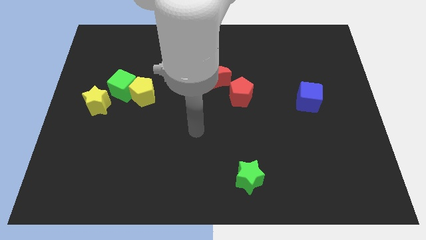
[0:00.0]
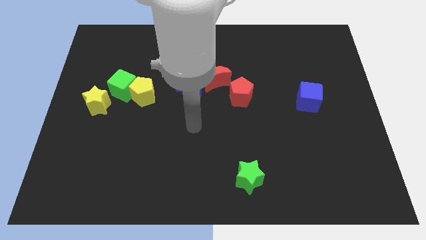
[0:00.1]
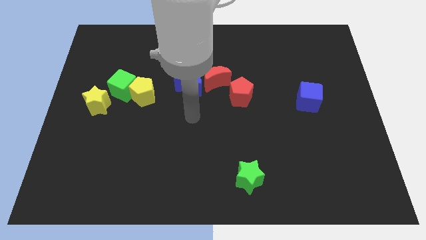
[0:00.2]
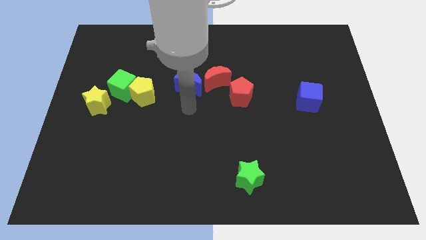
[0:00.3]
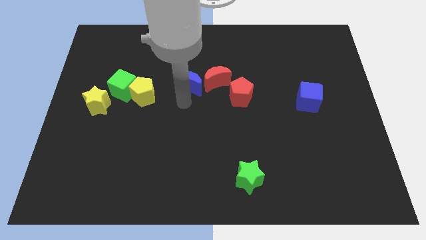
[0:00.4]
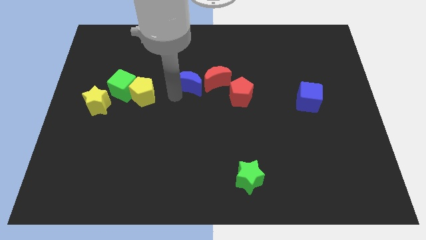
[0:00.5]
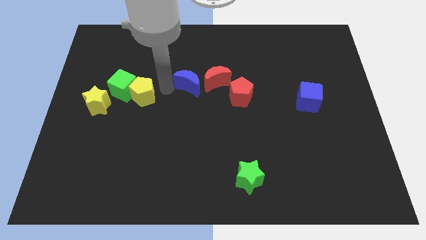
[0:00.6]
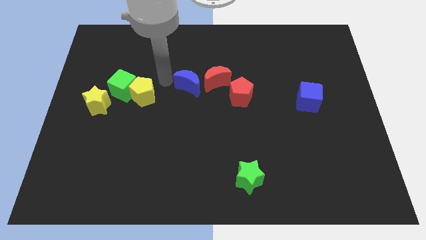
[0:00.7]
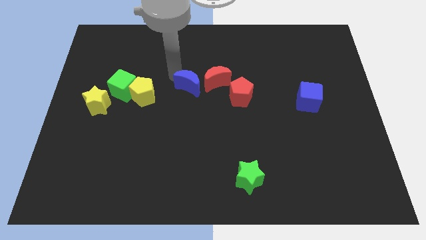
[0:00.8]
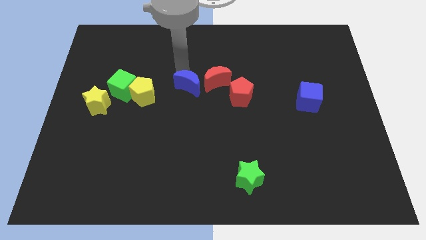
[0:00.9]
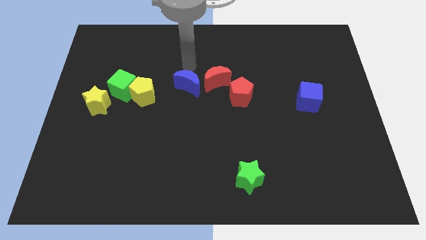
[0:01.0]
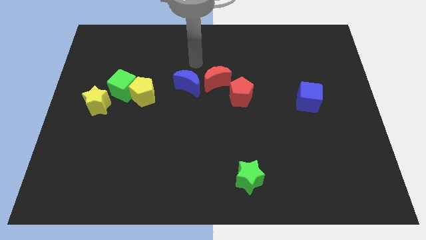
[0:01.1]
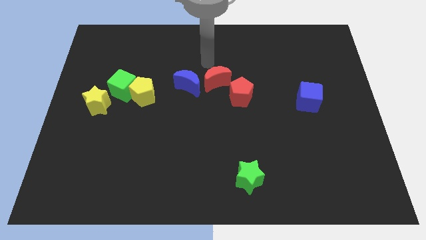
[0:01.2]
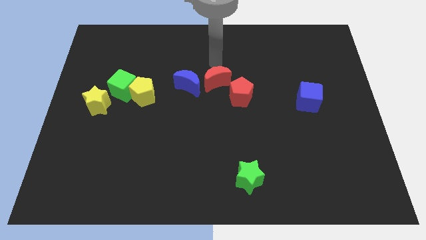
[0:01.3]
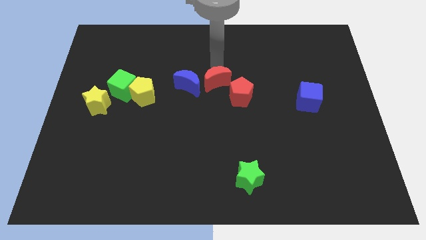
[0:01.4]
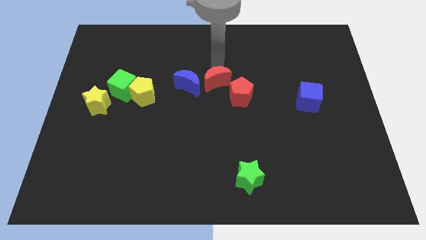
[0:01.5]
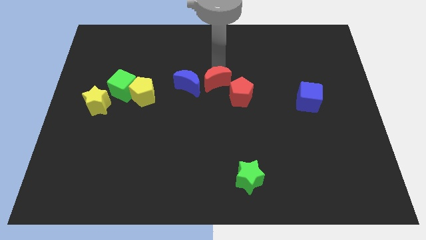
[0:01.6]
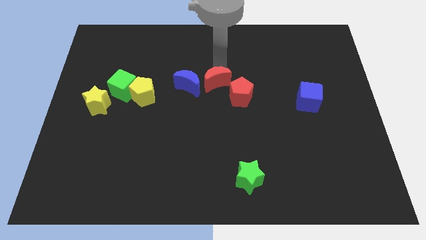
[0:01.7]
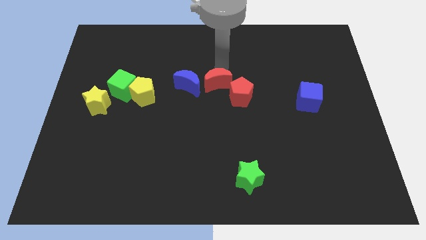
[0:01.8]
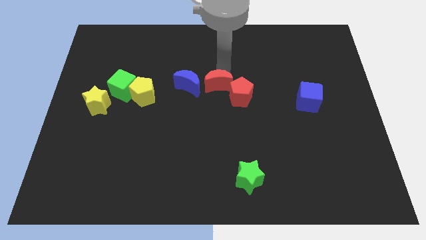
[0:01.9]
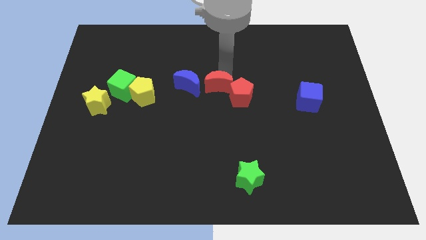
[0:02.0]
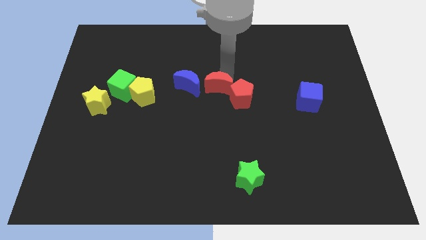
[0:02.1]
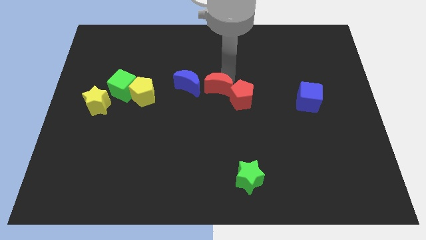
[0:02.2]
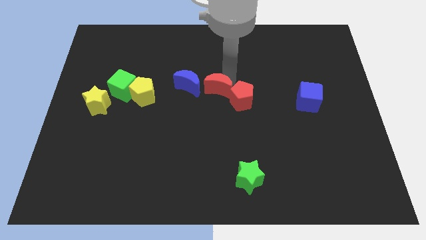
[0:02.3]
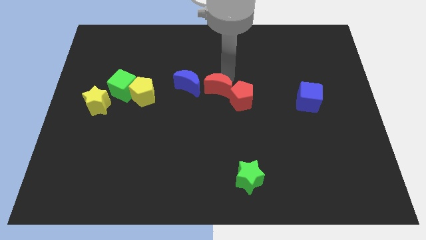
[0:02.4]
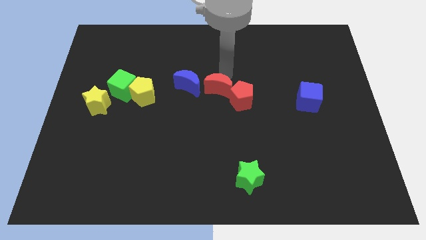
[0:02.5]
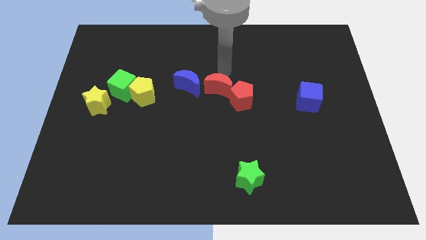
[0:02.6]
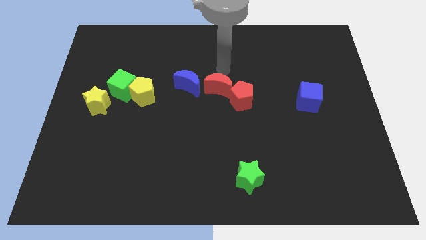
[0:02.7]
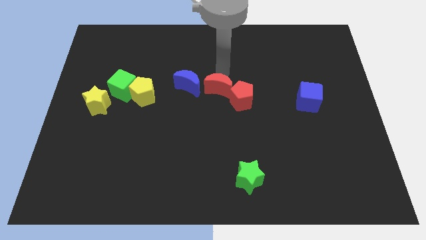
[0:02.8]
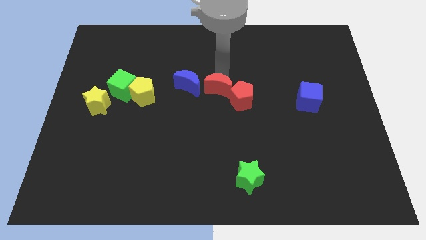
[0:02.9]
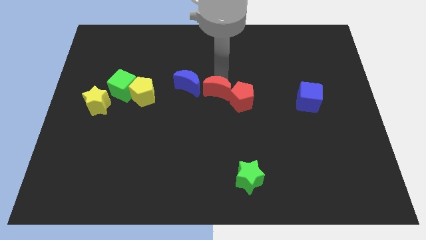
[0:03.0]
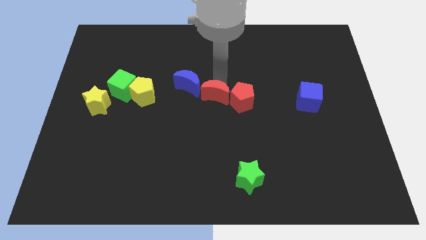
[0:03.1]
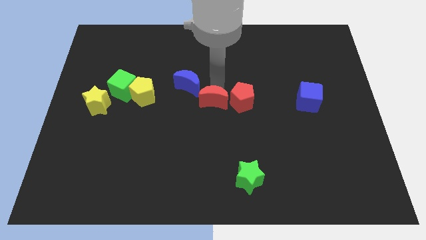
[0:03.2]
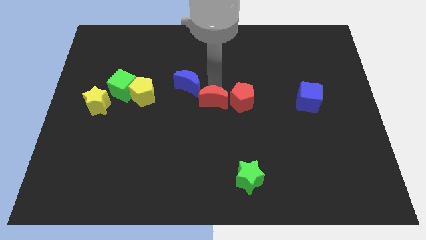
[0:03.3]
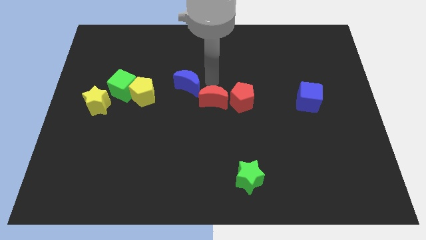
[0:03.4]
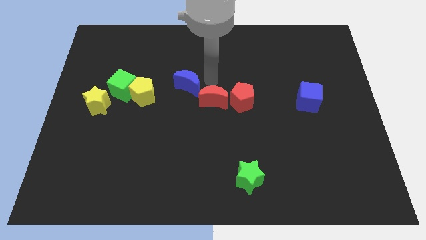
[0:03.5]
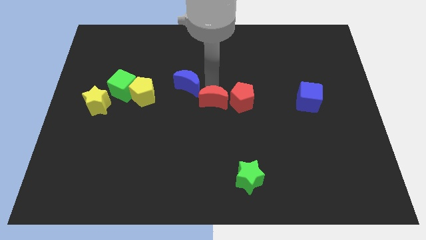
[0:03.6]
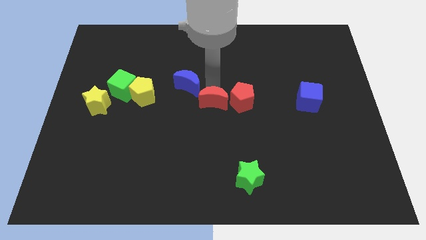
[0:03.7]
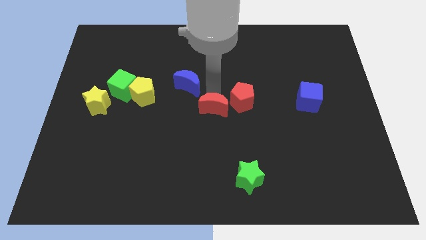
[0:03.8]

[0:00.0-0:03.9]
push the red moon slightly down

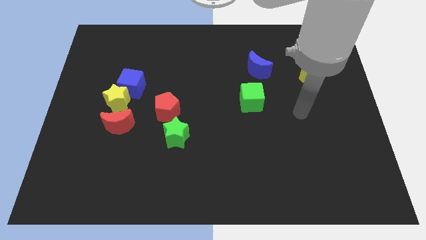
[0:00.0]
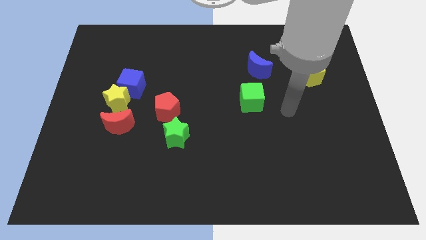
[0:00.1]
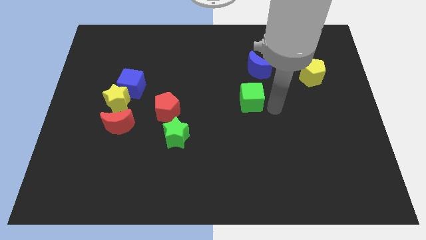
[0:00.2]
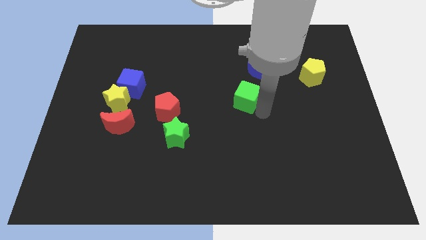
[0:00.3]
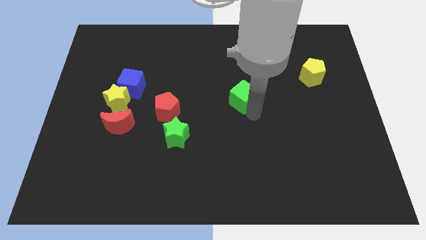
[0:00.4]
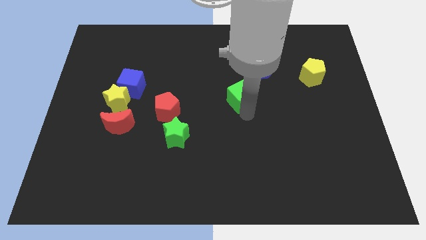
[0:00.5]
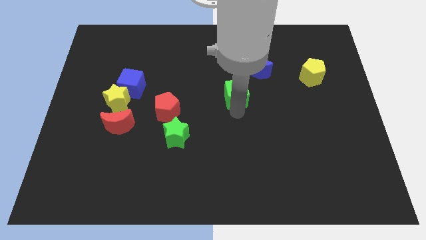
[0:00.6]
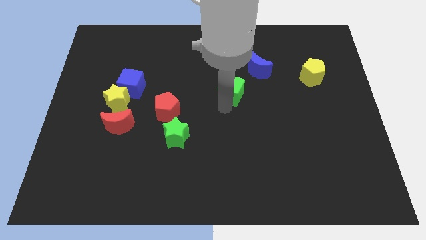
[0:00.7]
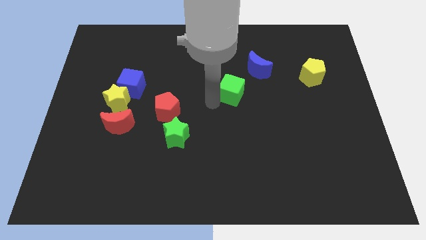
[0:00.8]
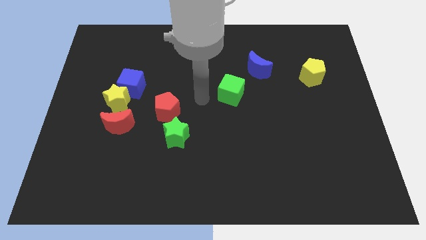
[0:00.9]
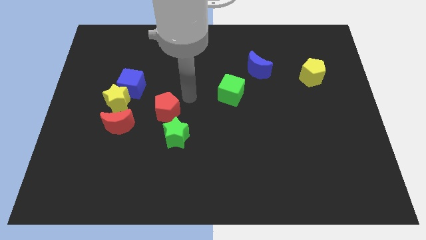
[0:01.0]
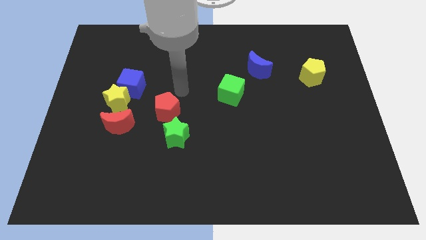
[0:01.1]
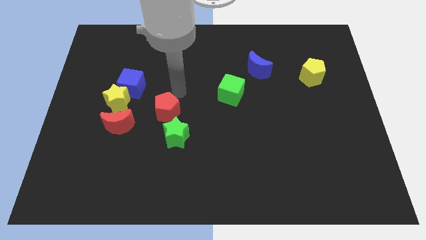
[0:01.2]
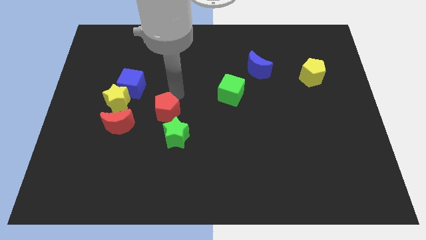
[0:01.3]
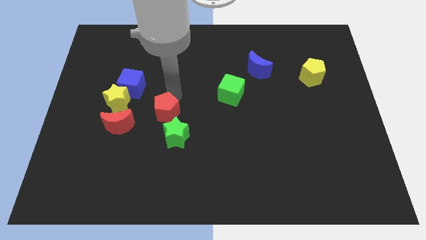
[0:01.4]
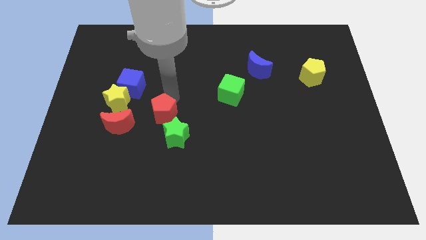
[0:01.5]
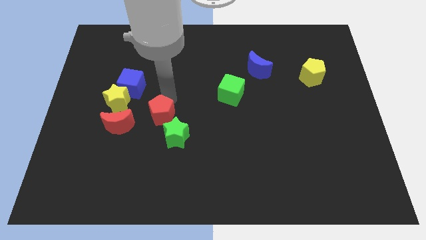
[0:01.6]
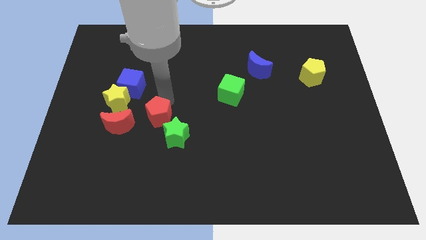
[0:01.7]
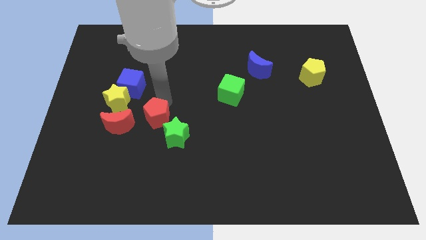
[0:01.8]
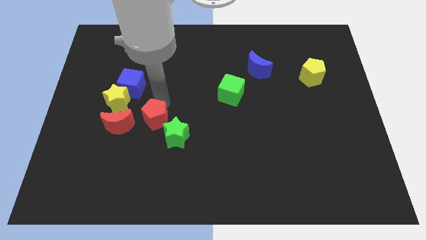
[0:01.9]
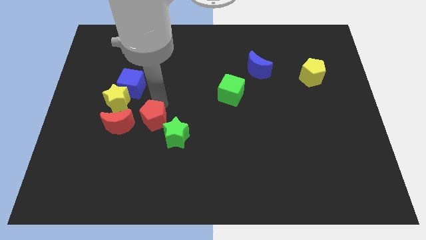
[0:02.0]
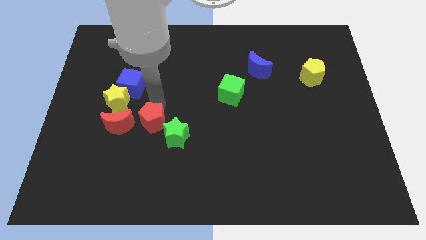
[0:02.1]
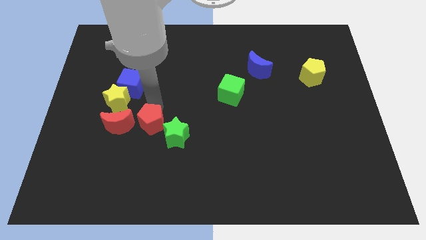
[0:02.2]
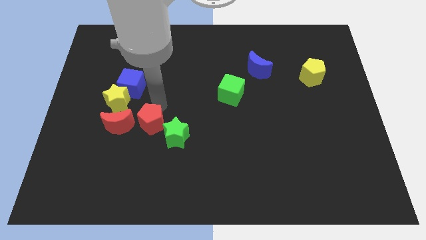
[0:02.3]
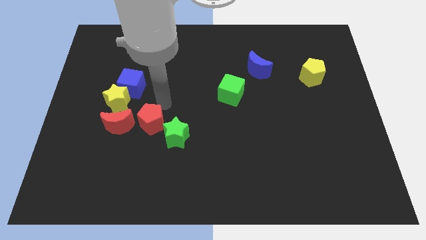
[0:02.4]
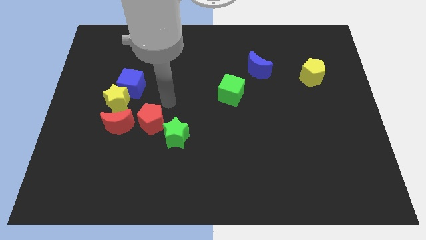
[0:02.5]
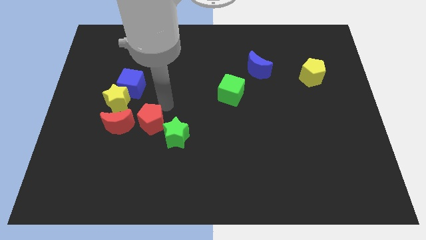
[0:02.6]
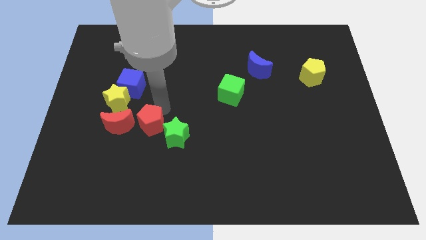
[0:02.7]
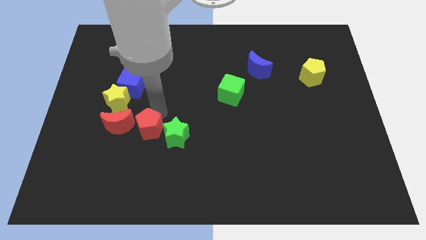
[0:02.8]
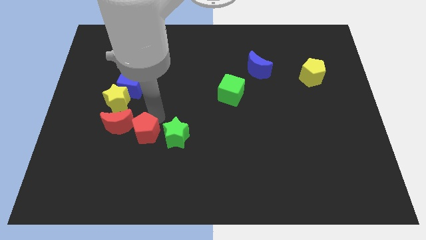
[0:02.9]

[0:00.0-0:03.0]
slightly slide the red pentagon down and then left

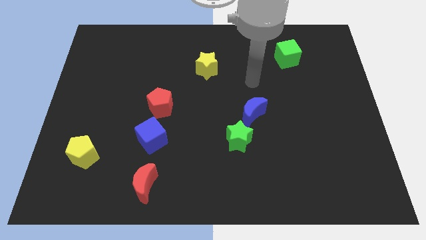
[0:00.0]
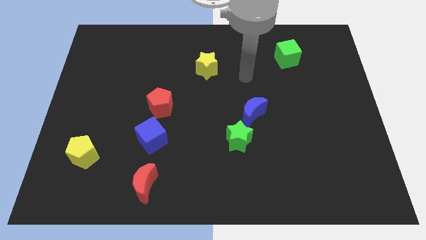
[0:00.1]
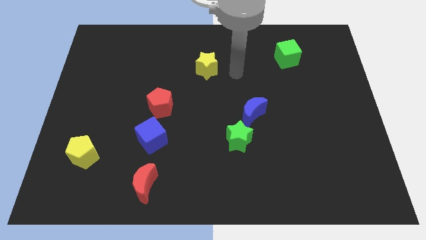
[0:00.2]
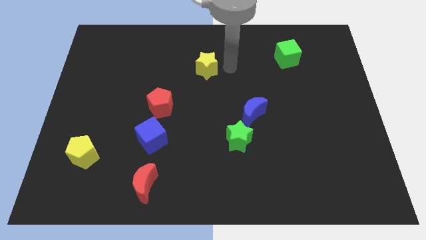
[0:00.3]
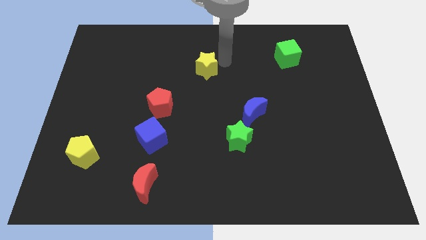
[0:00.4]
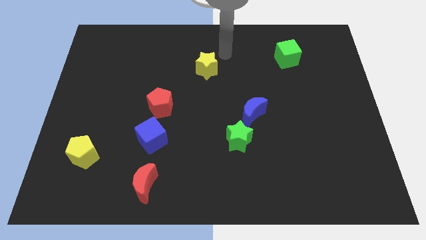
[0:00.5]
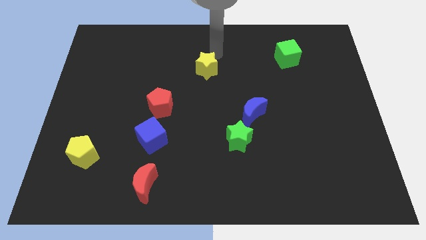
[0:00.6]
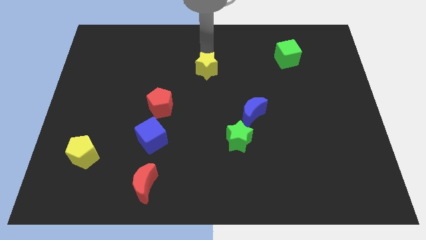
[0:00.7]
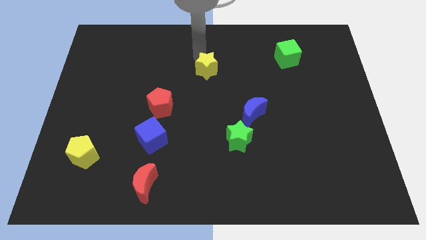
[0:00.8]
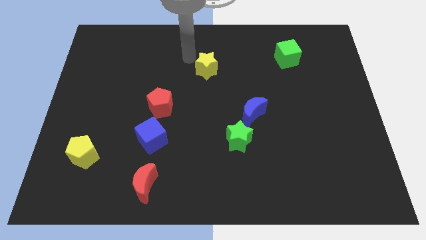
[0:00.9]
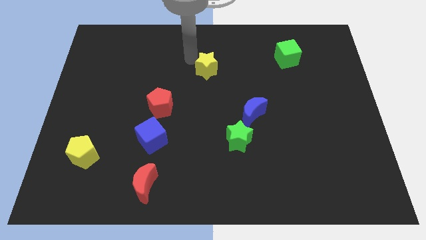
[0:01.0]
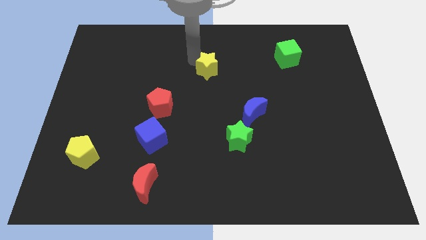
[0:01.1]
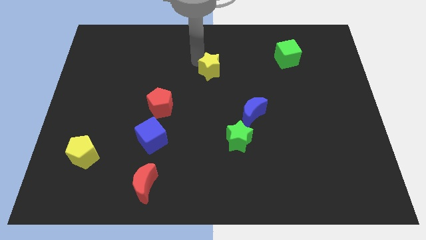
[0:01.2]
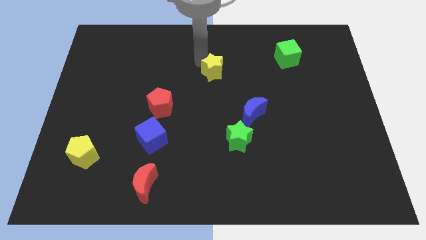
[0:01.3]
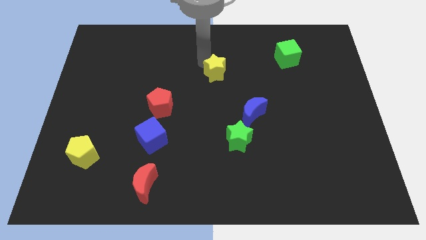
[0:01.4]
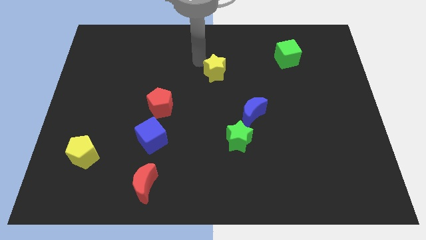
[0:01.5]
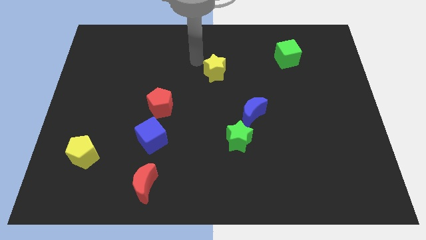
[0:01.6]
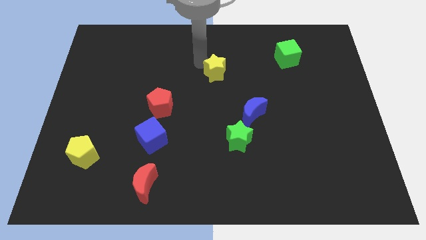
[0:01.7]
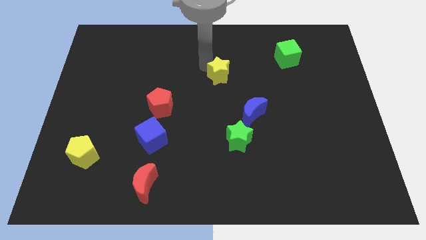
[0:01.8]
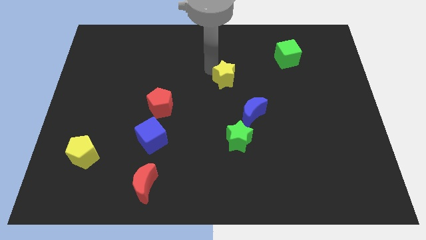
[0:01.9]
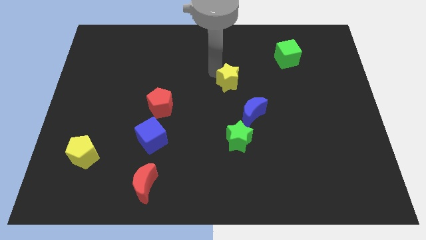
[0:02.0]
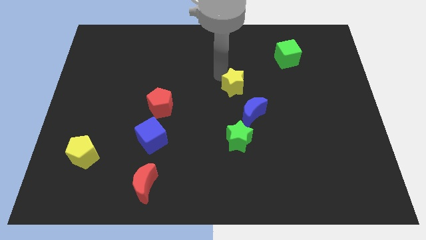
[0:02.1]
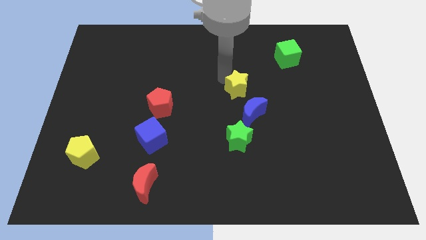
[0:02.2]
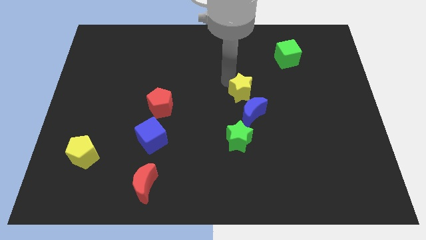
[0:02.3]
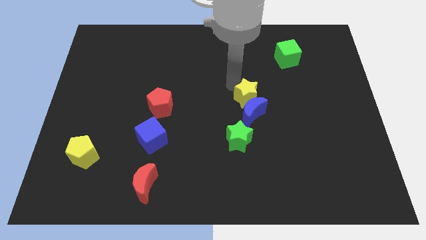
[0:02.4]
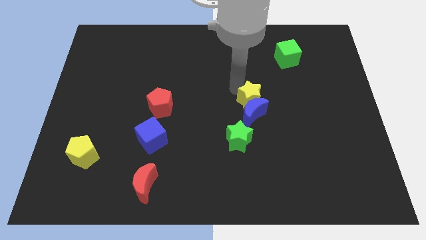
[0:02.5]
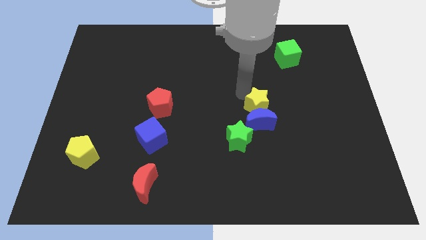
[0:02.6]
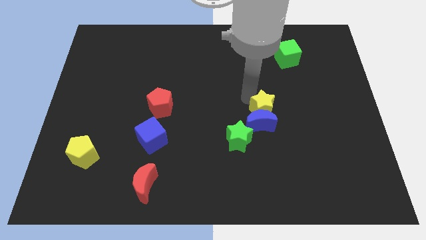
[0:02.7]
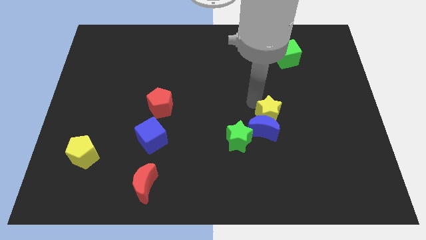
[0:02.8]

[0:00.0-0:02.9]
slide the yellow star downwards and then to the right
